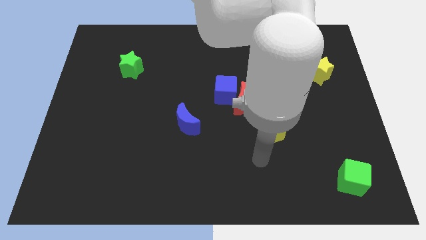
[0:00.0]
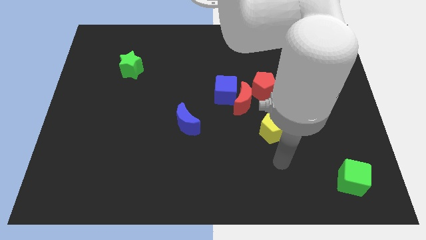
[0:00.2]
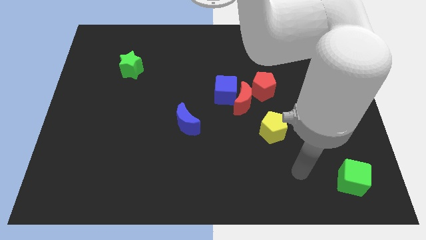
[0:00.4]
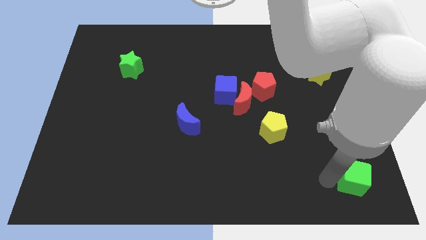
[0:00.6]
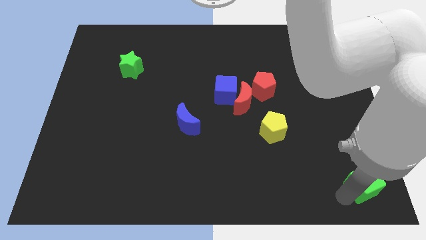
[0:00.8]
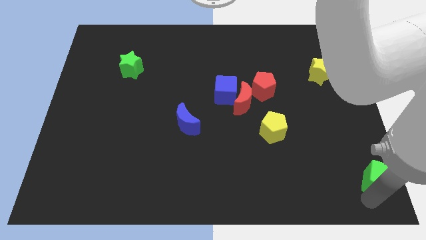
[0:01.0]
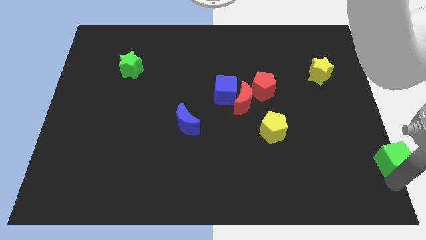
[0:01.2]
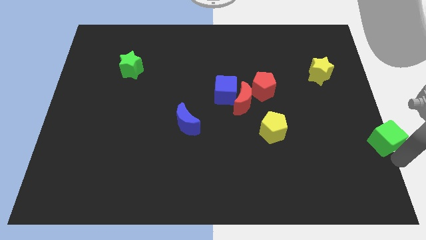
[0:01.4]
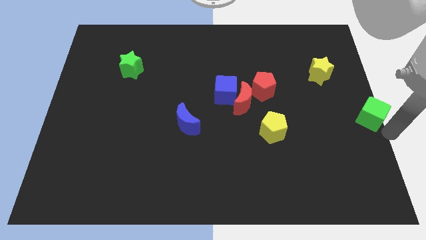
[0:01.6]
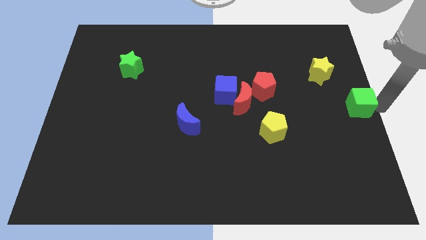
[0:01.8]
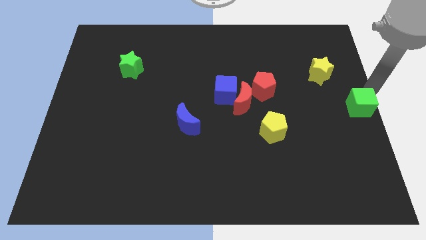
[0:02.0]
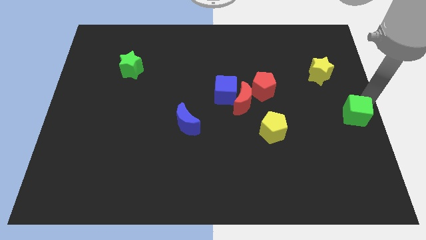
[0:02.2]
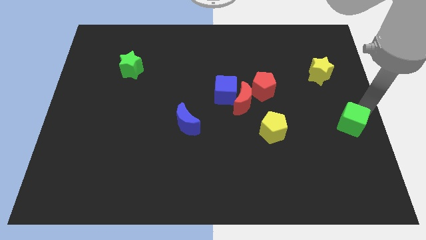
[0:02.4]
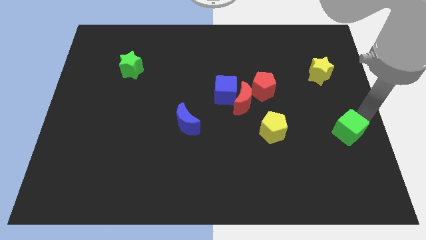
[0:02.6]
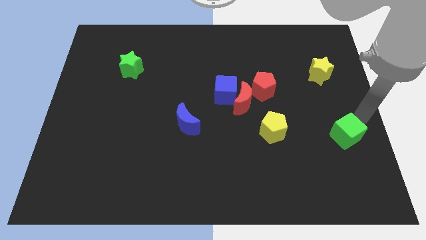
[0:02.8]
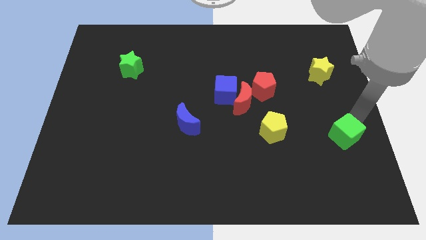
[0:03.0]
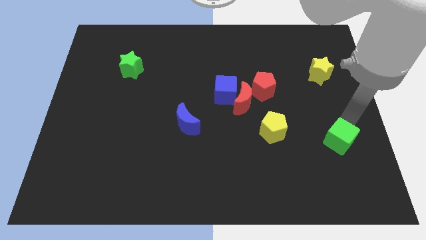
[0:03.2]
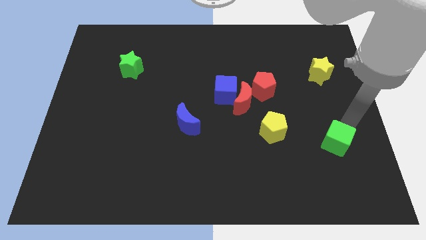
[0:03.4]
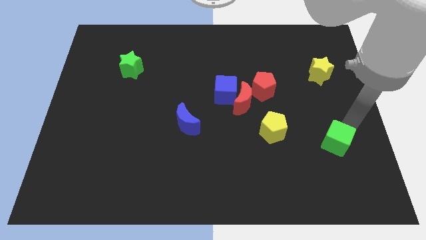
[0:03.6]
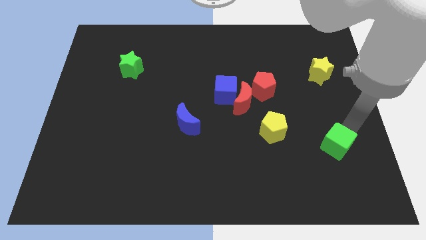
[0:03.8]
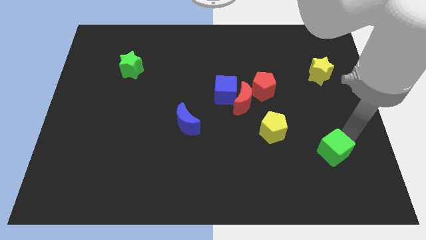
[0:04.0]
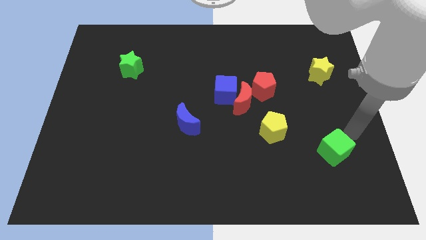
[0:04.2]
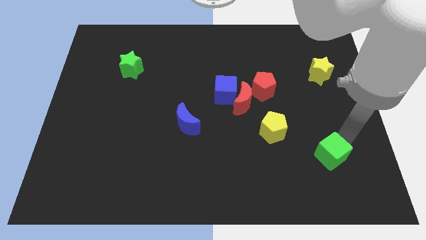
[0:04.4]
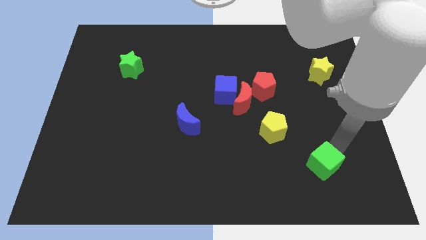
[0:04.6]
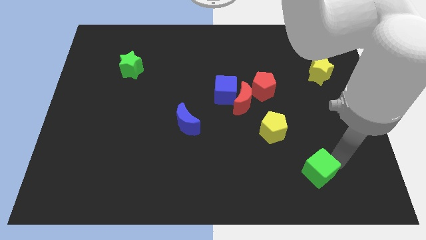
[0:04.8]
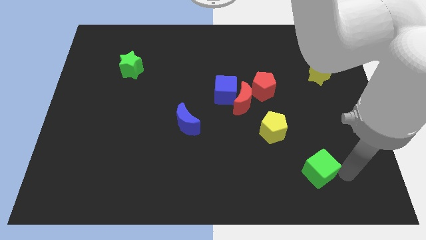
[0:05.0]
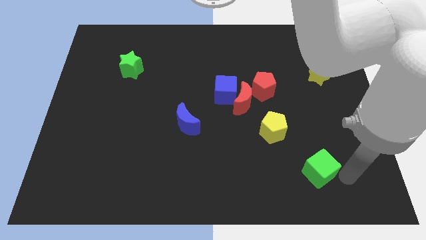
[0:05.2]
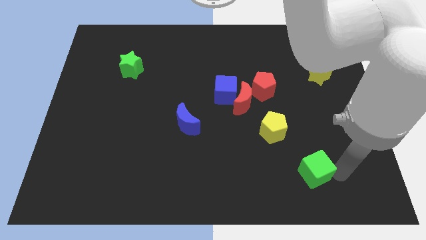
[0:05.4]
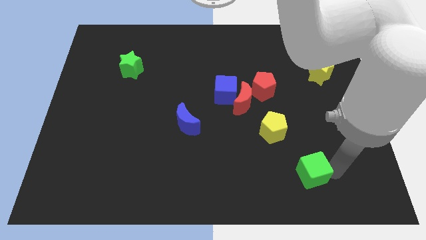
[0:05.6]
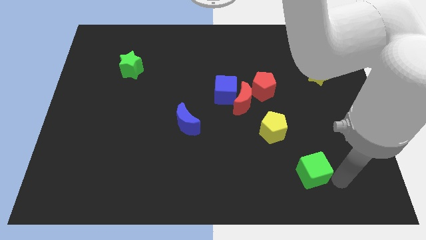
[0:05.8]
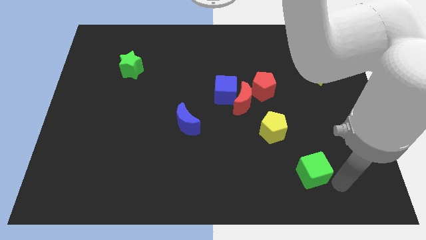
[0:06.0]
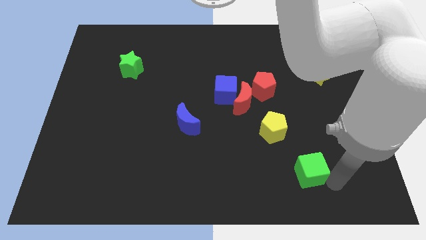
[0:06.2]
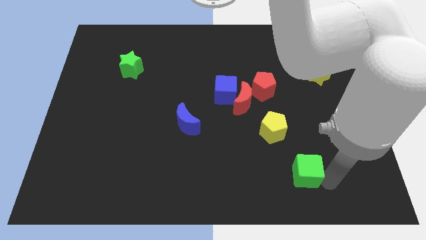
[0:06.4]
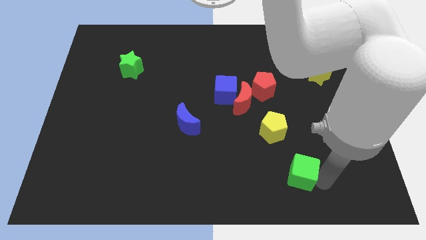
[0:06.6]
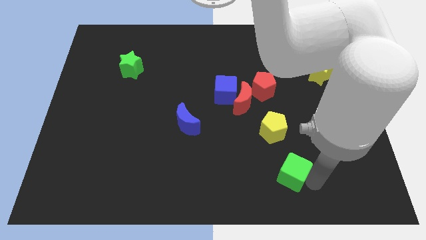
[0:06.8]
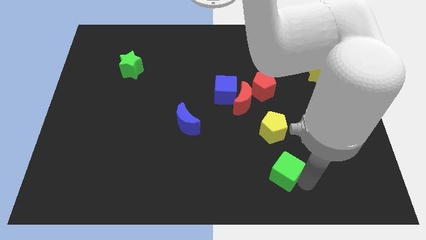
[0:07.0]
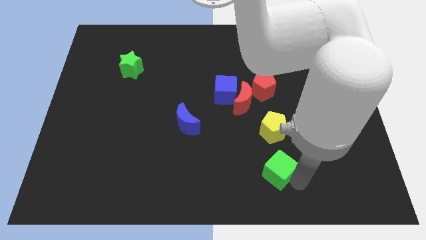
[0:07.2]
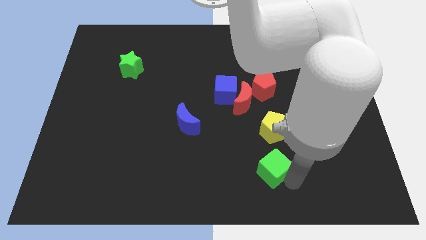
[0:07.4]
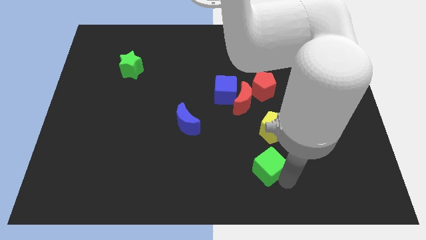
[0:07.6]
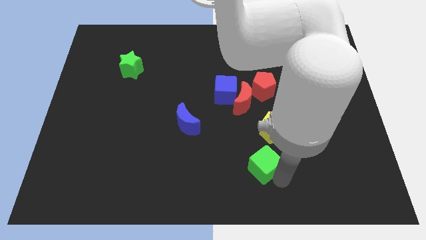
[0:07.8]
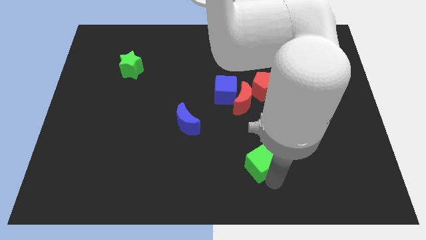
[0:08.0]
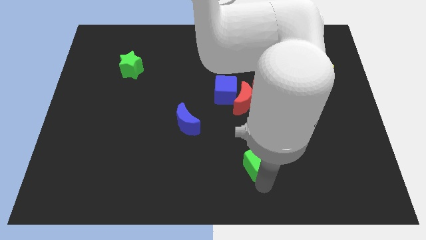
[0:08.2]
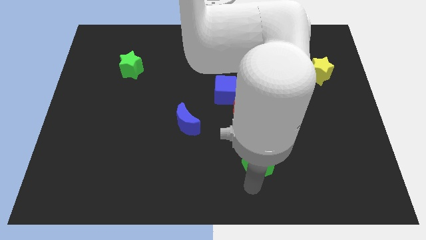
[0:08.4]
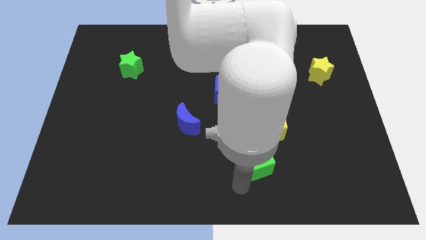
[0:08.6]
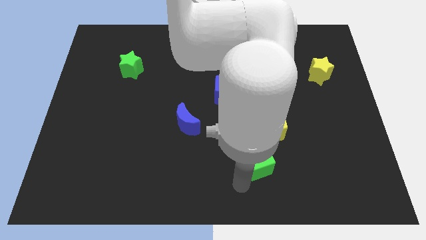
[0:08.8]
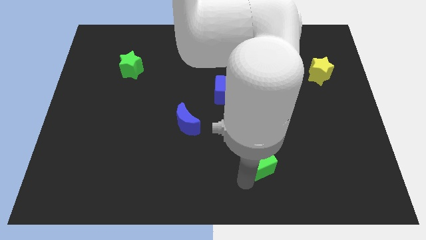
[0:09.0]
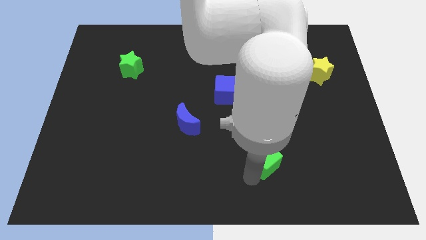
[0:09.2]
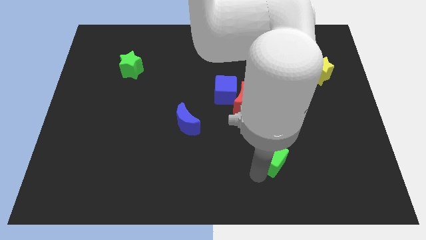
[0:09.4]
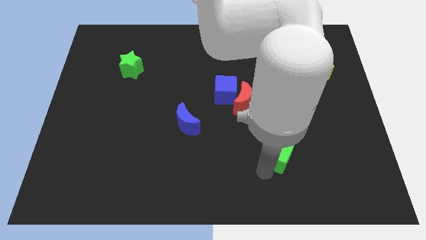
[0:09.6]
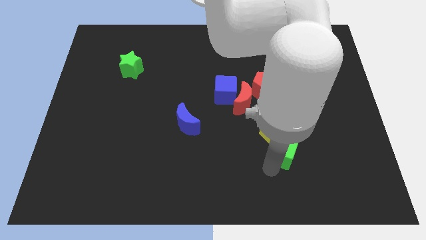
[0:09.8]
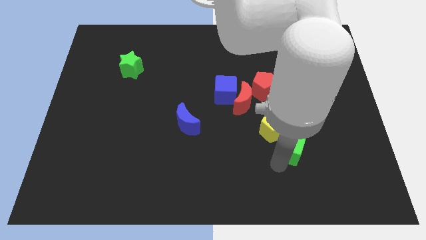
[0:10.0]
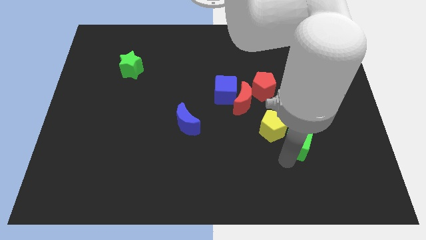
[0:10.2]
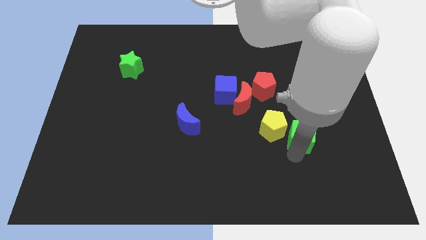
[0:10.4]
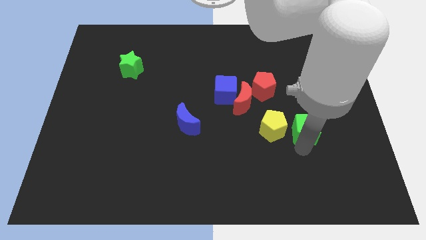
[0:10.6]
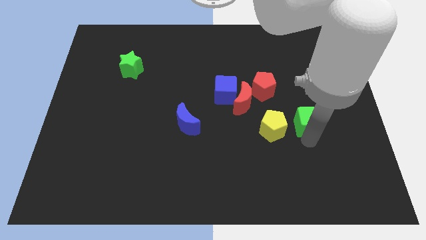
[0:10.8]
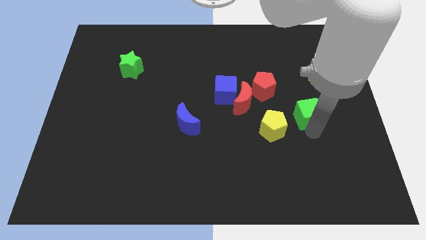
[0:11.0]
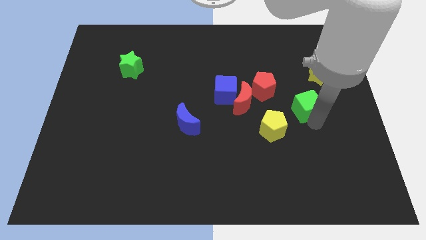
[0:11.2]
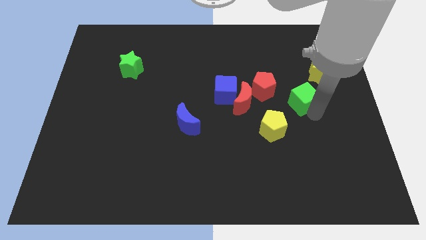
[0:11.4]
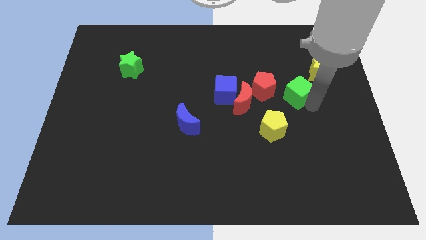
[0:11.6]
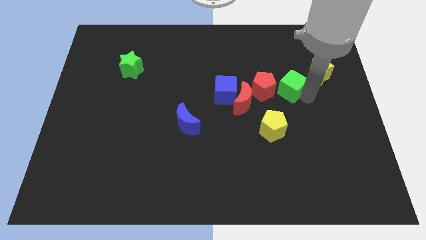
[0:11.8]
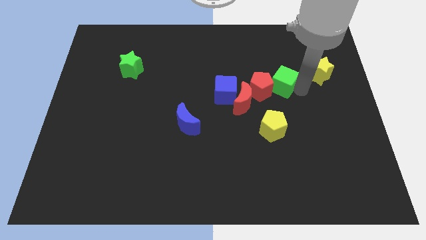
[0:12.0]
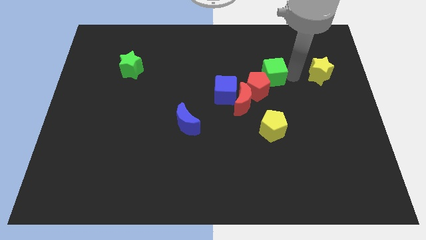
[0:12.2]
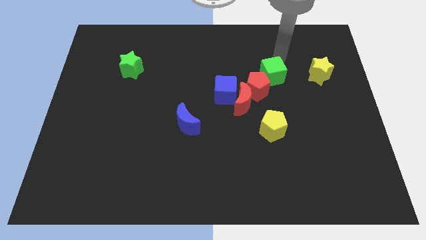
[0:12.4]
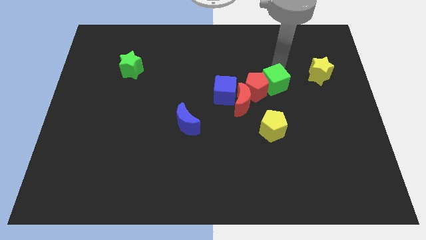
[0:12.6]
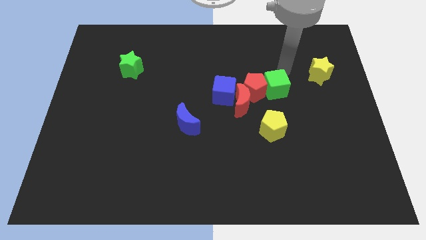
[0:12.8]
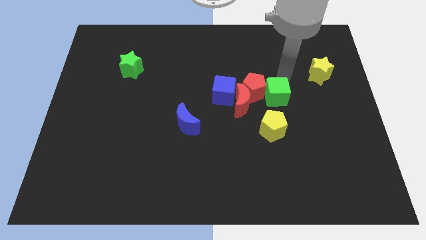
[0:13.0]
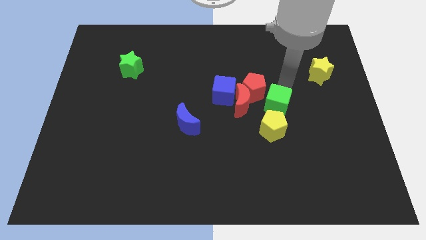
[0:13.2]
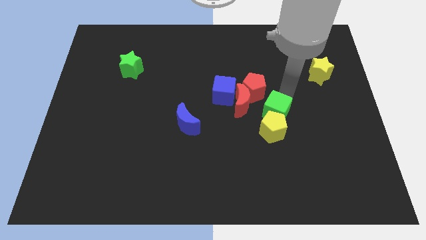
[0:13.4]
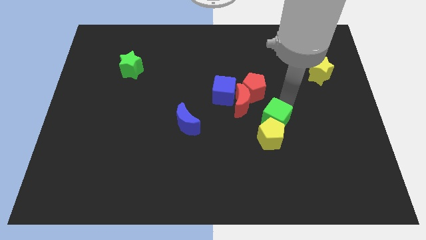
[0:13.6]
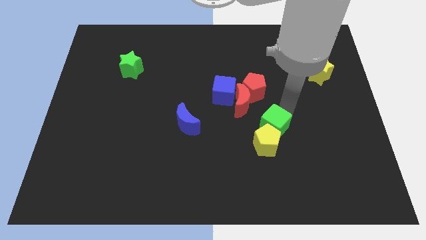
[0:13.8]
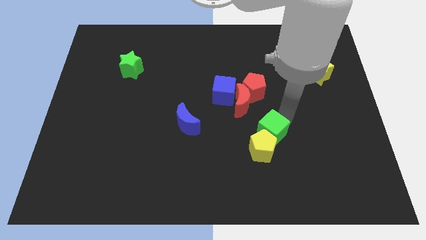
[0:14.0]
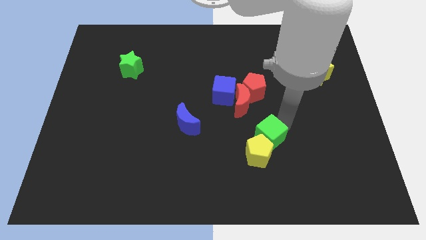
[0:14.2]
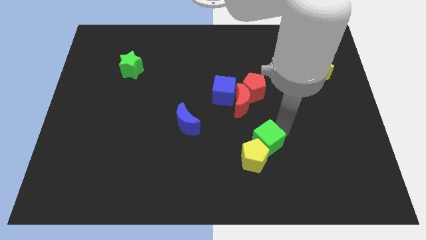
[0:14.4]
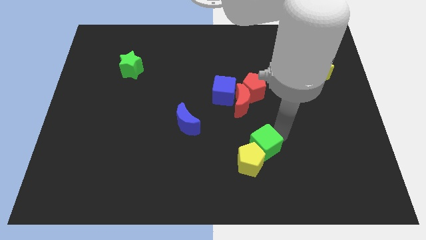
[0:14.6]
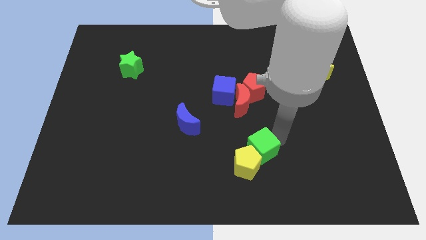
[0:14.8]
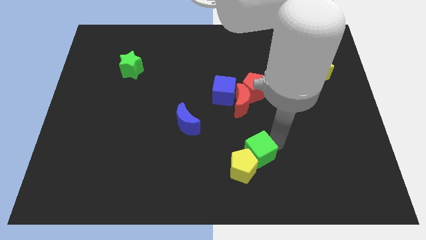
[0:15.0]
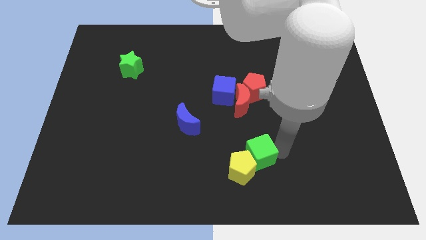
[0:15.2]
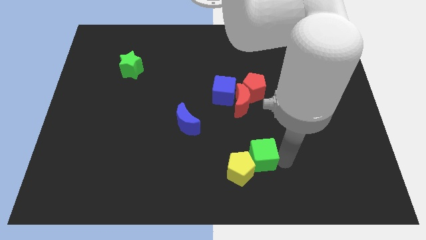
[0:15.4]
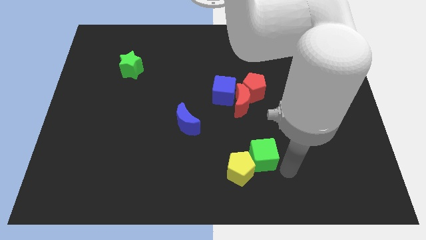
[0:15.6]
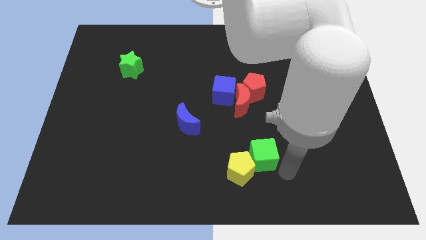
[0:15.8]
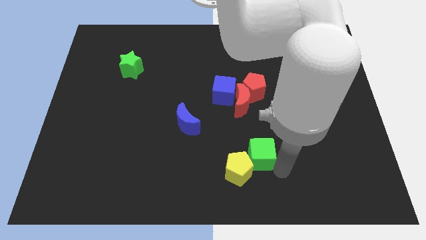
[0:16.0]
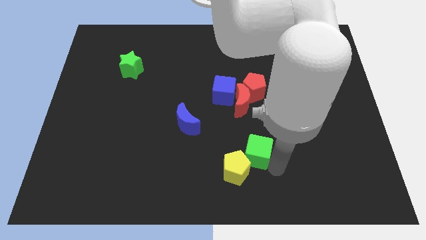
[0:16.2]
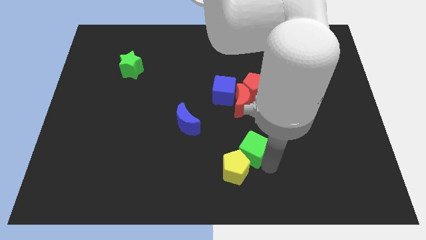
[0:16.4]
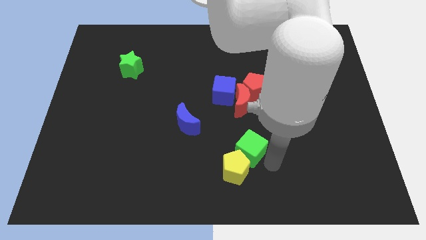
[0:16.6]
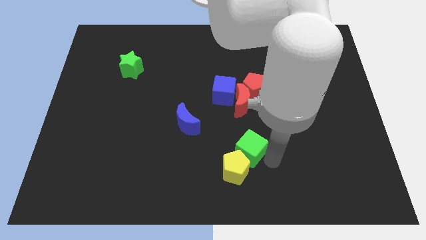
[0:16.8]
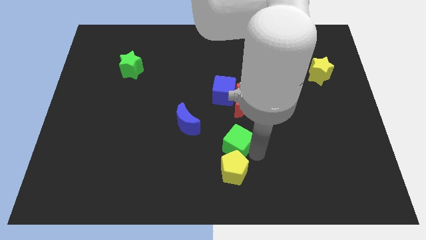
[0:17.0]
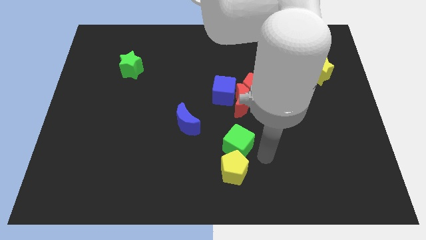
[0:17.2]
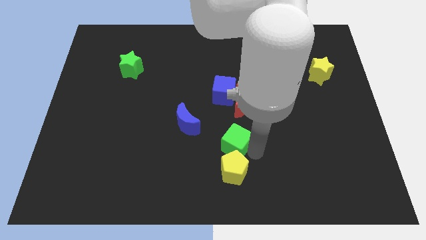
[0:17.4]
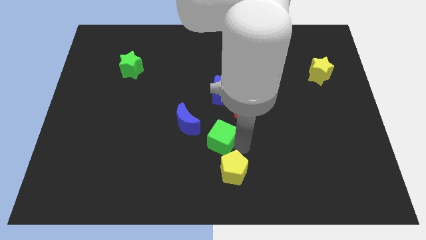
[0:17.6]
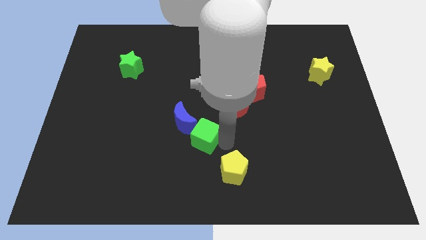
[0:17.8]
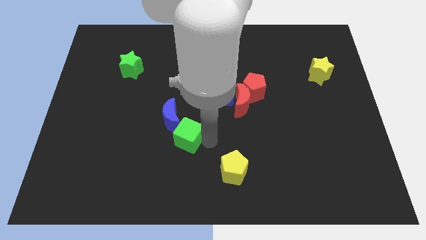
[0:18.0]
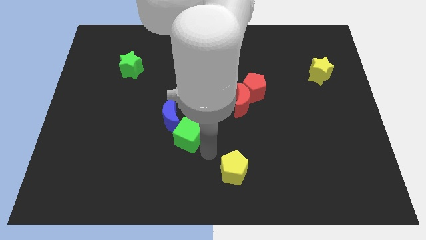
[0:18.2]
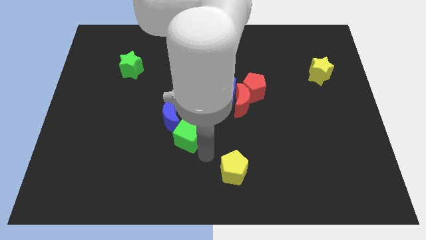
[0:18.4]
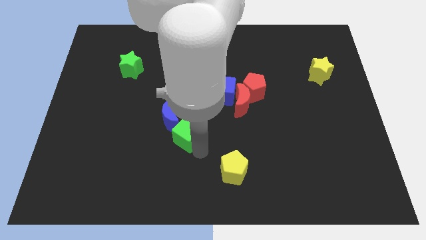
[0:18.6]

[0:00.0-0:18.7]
move the green cube towards the blue moon
